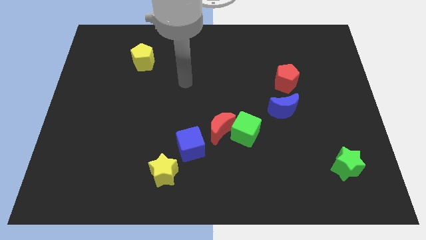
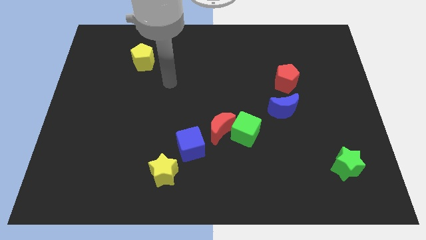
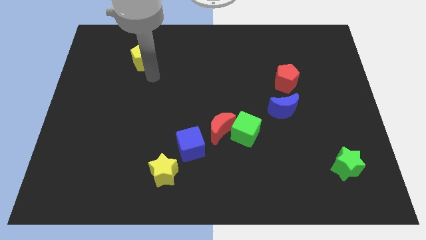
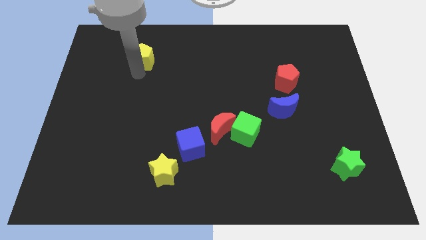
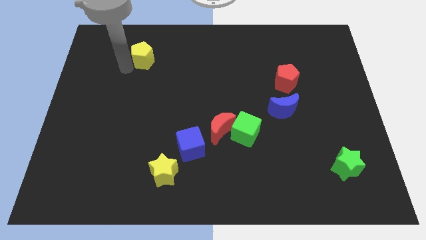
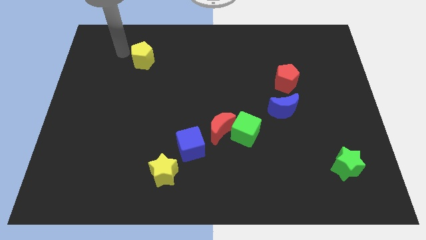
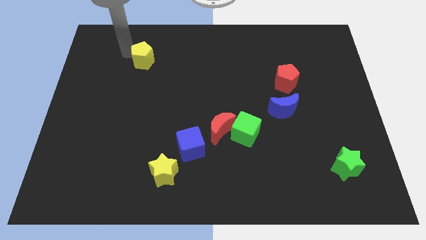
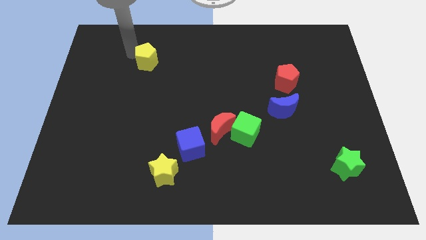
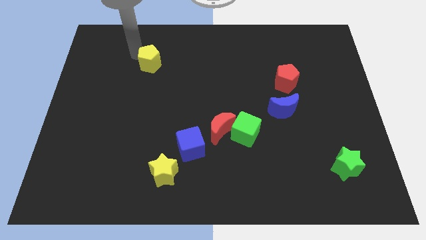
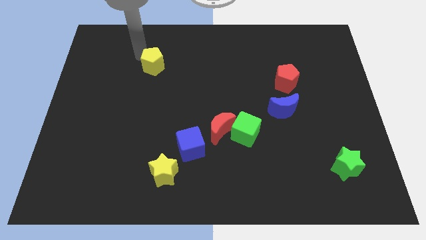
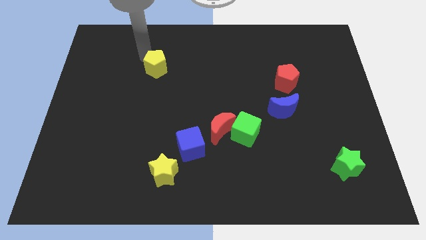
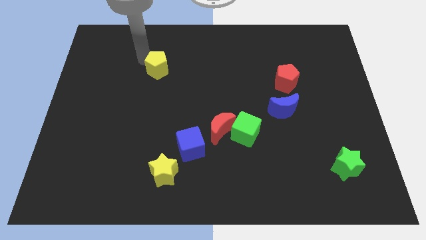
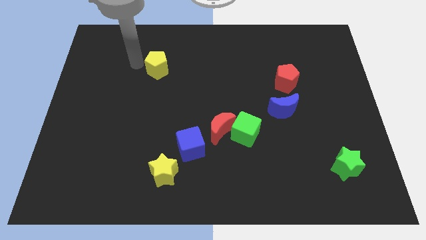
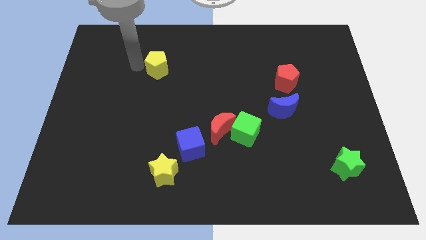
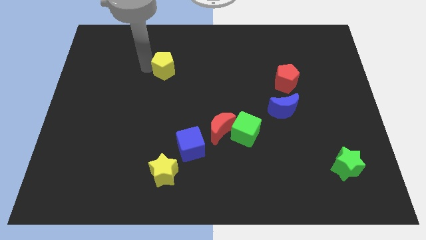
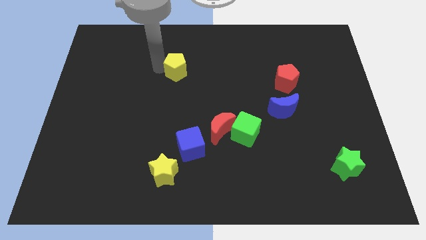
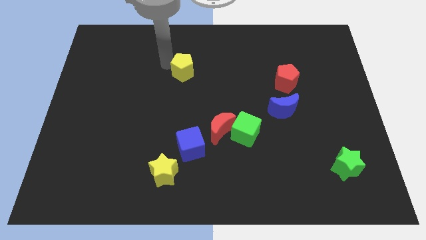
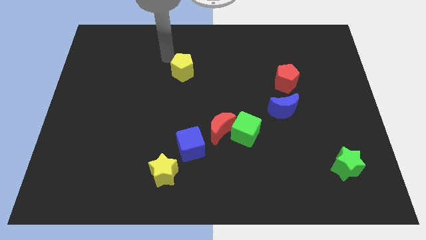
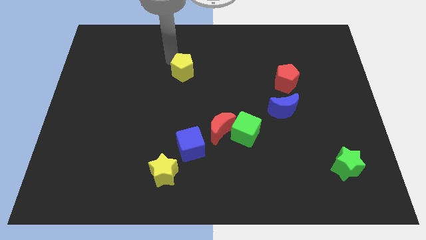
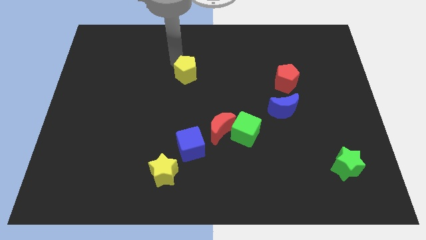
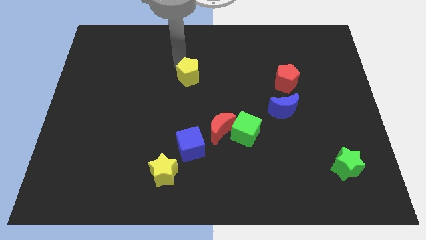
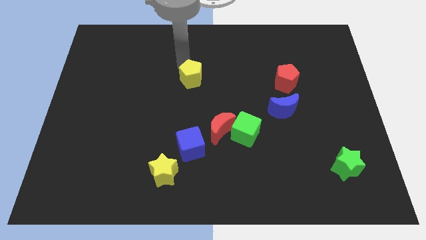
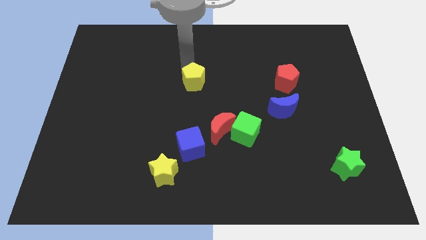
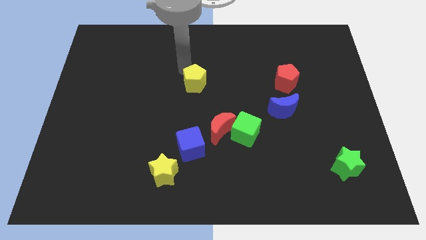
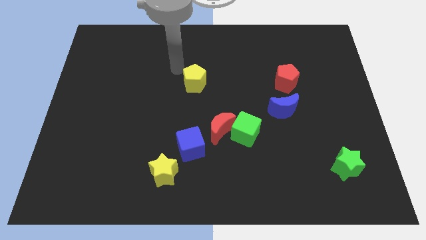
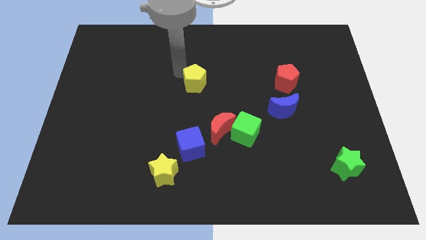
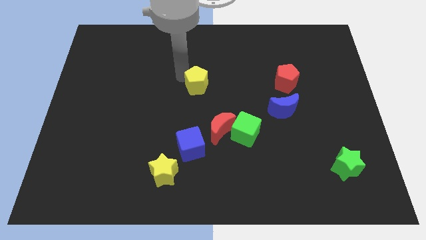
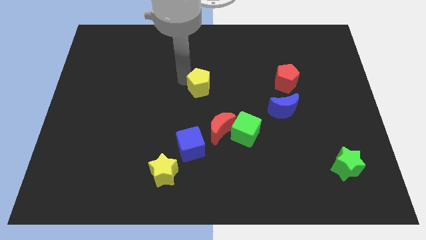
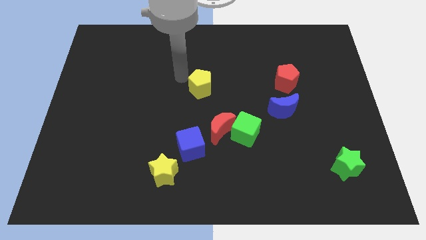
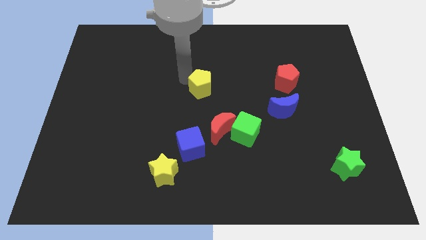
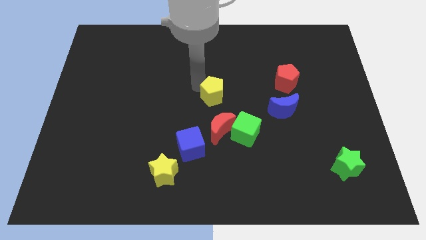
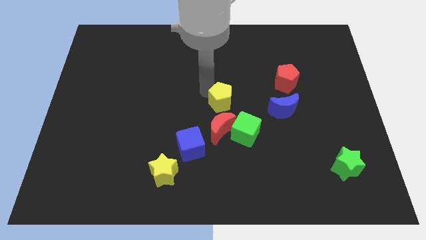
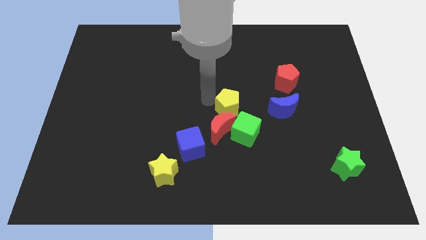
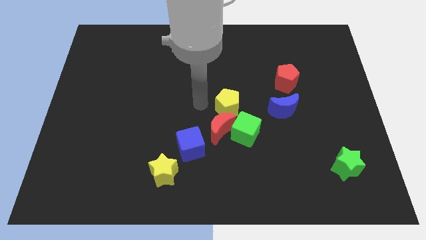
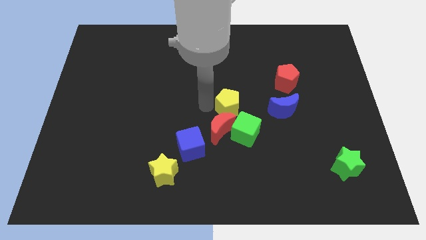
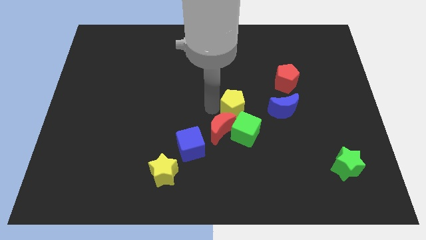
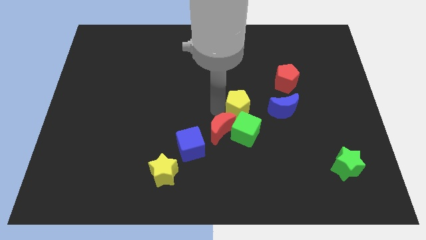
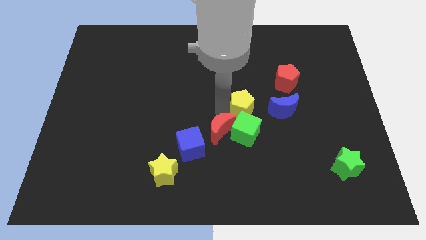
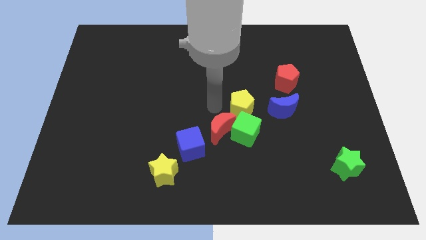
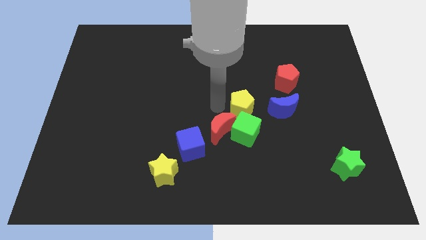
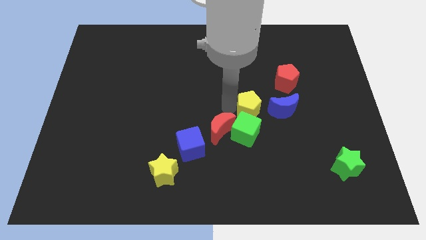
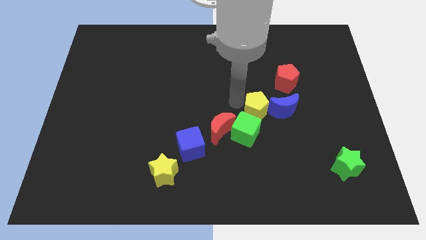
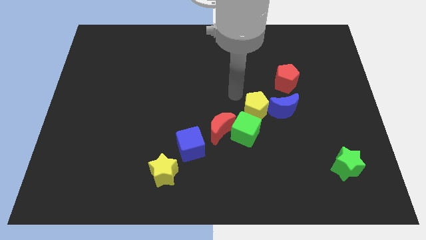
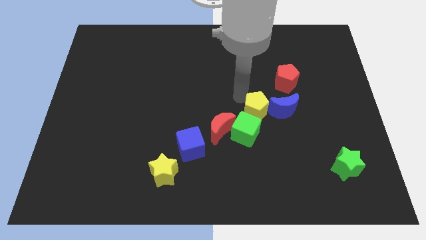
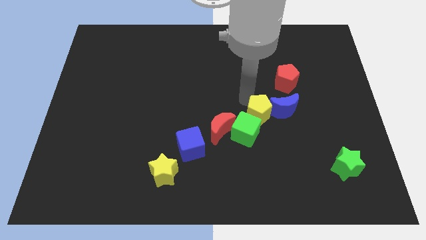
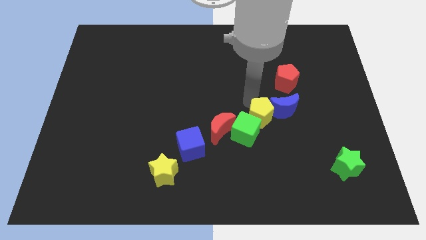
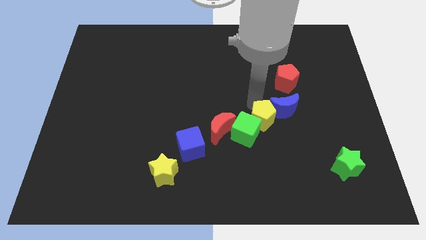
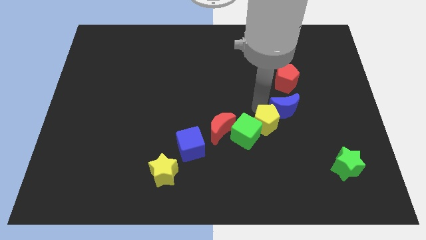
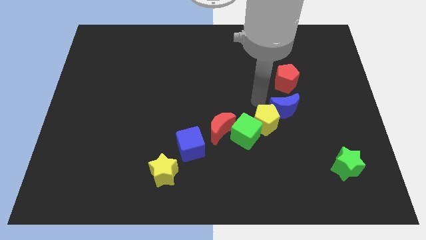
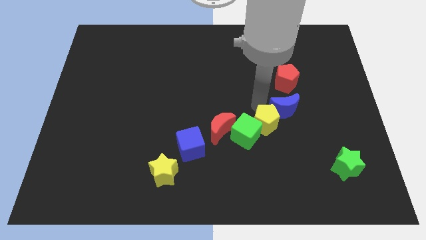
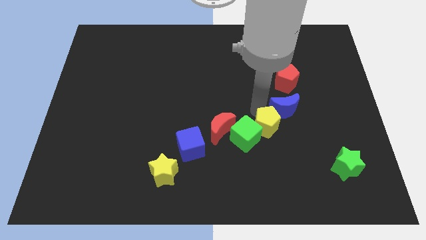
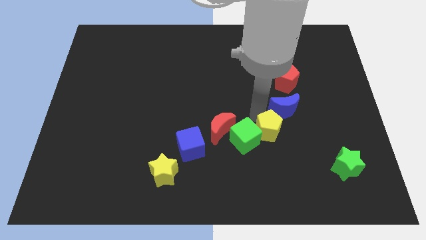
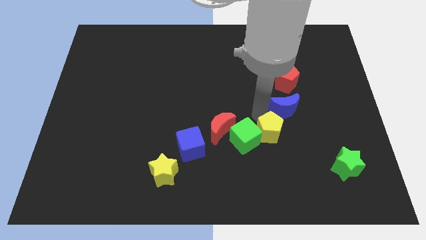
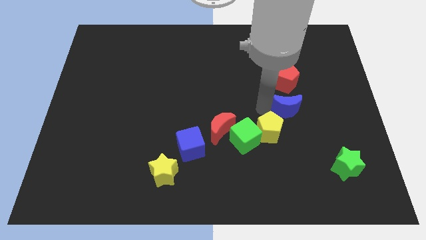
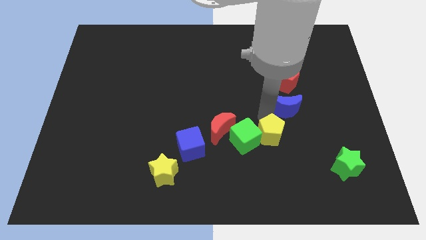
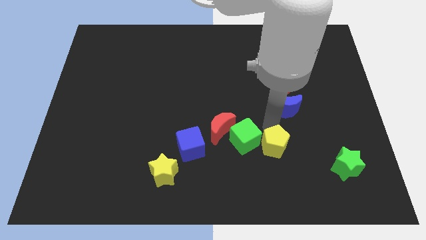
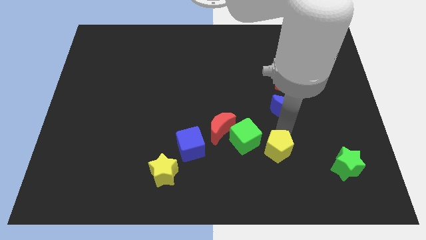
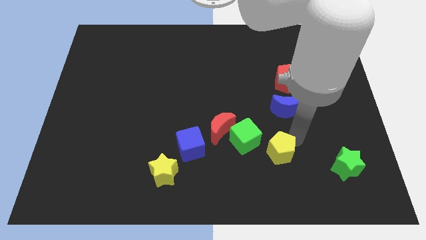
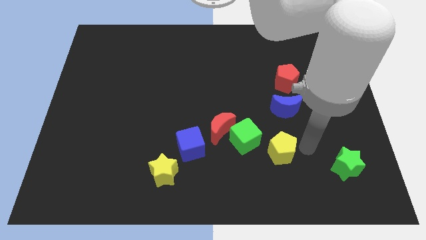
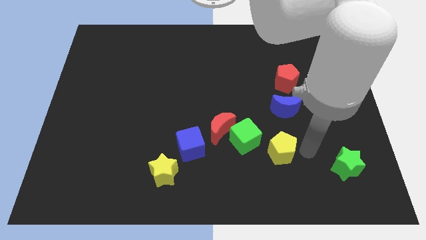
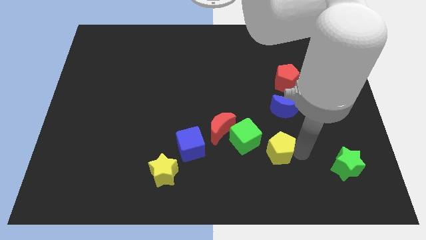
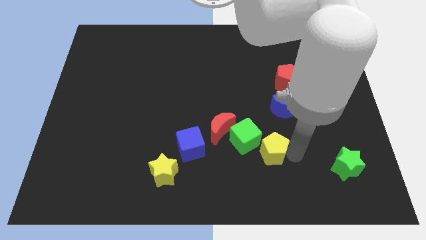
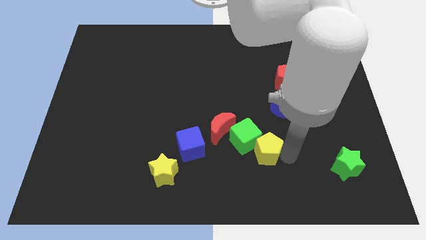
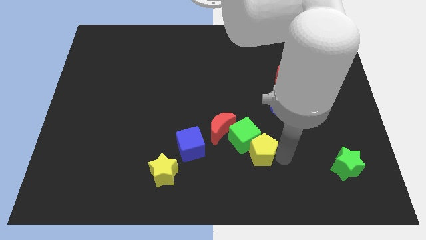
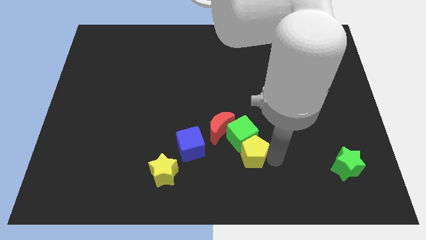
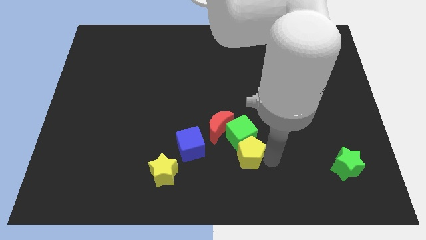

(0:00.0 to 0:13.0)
move the yellow pentagon diagonally down and to the left of the green cube

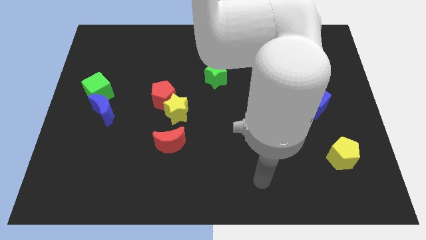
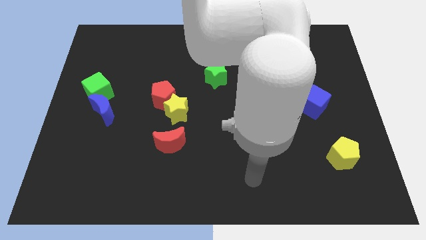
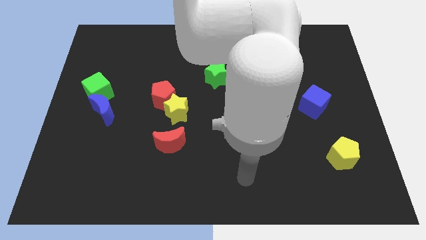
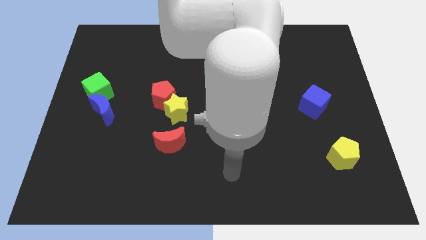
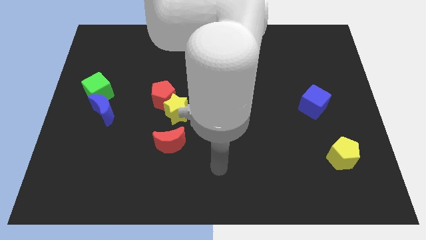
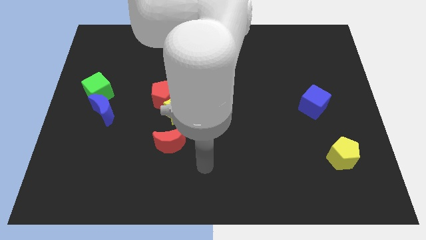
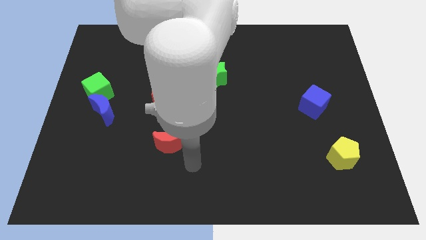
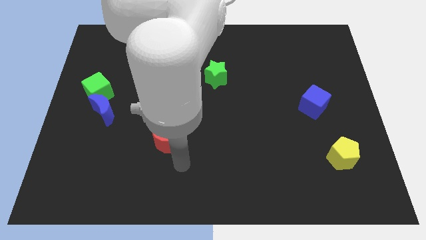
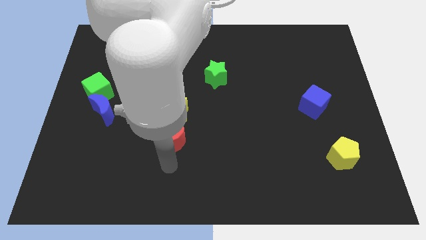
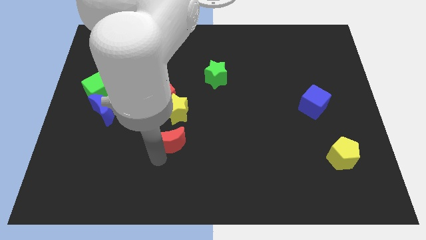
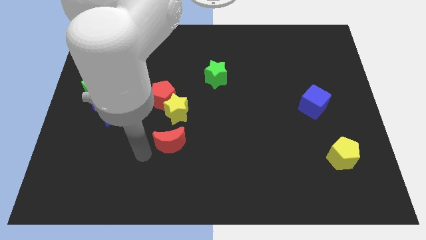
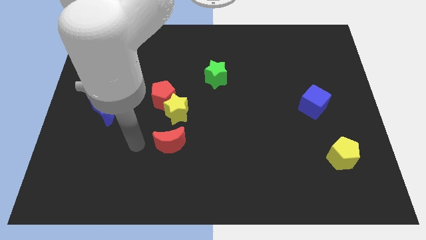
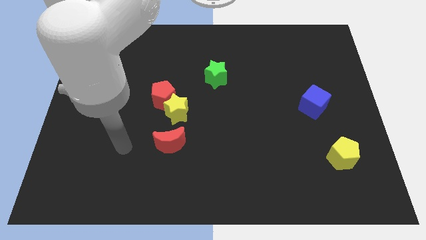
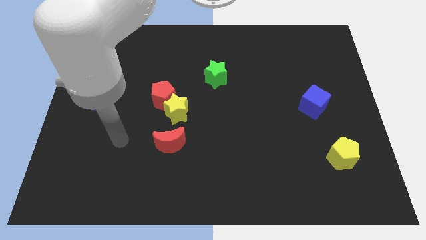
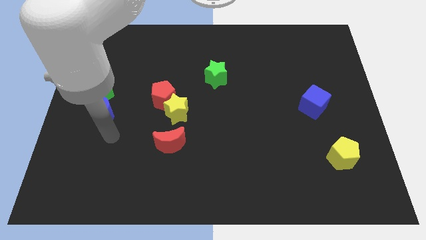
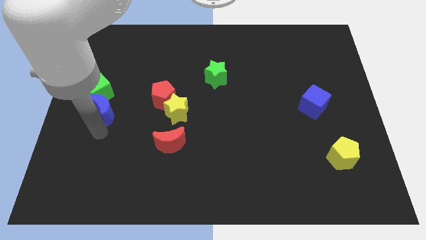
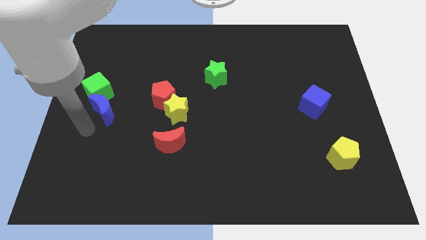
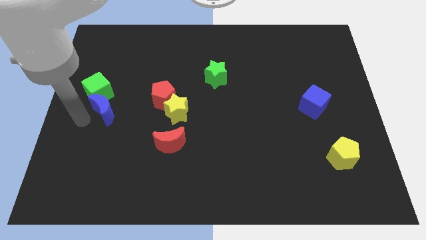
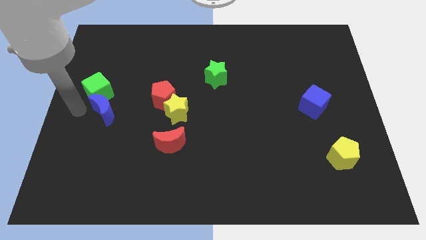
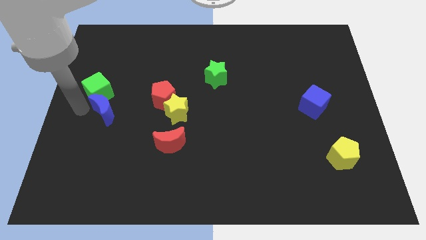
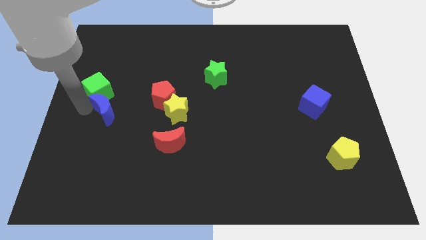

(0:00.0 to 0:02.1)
put the blue moon to the left side of the yellow star
